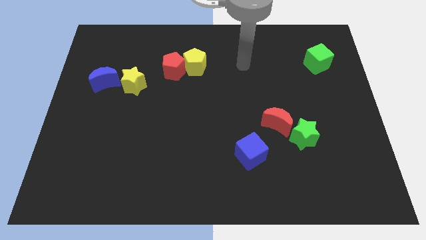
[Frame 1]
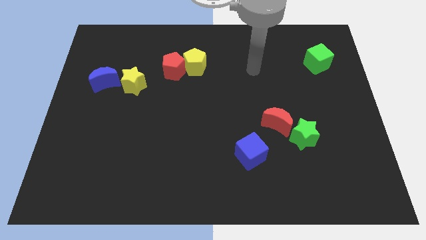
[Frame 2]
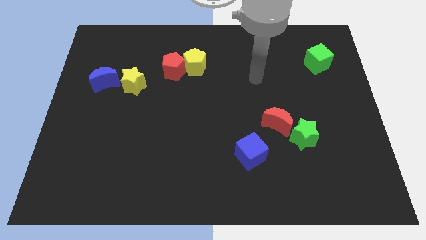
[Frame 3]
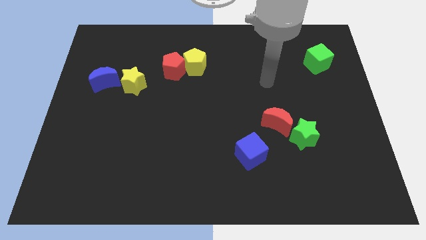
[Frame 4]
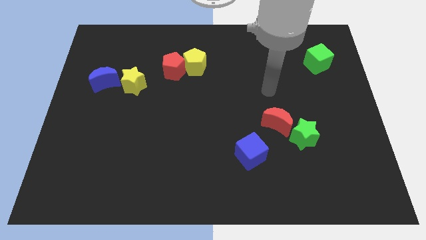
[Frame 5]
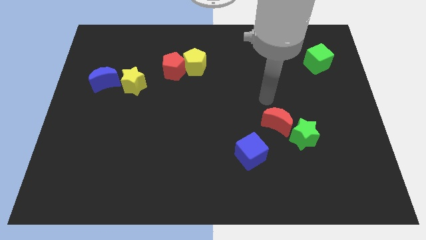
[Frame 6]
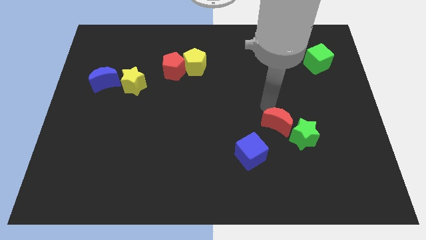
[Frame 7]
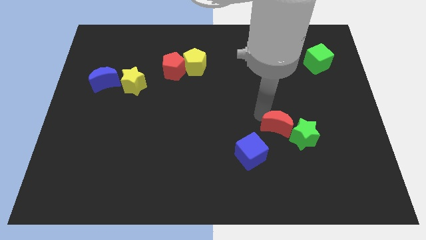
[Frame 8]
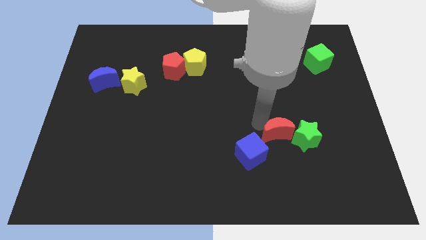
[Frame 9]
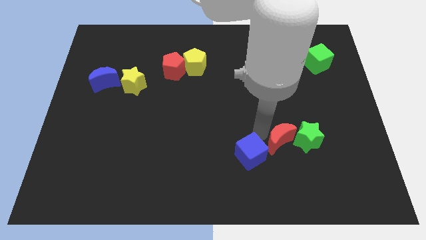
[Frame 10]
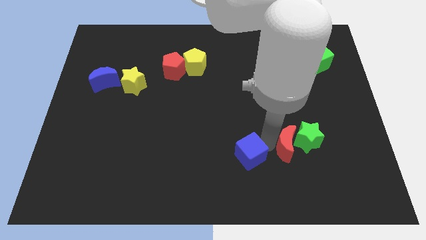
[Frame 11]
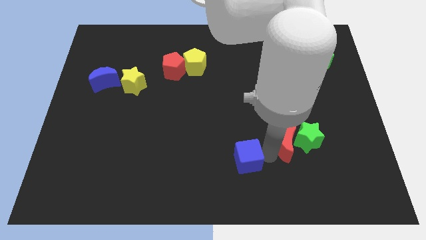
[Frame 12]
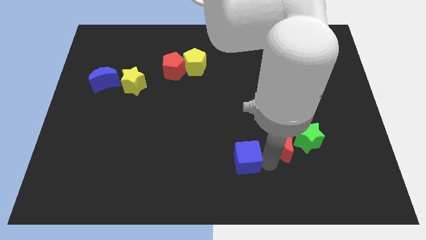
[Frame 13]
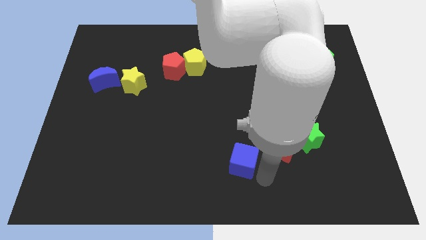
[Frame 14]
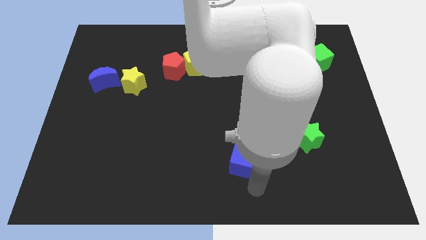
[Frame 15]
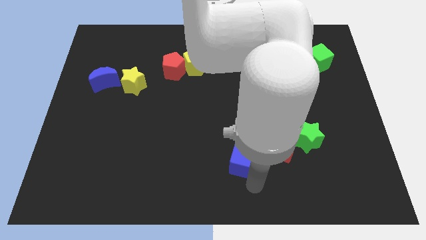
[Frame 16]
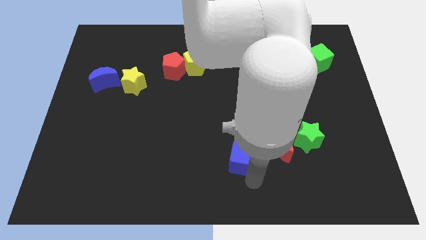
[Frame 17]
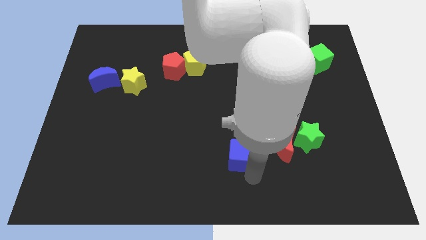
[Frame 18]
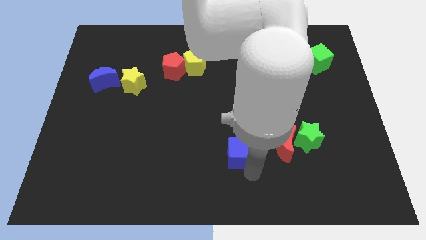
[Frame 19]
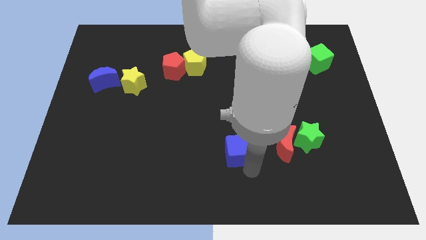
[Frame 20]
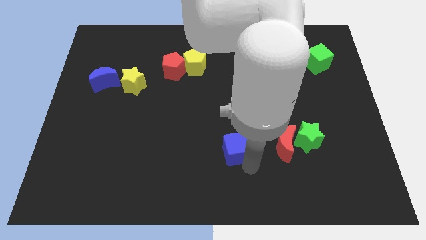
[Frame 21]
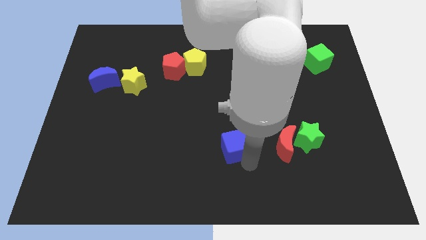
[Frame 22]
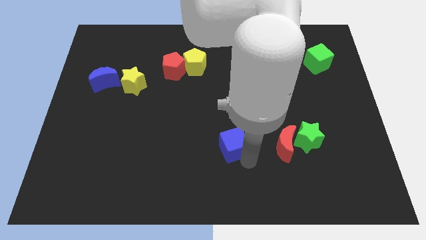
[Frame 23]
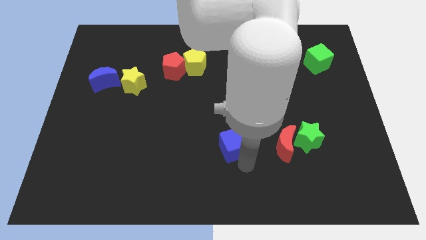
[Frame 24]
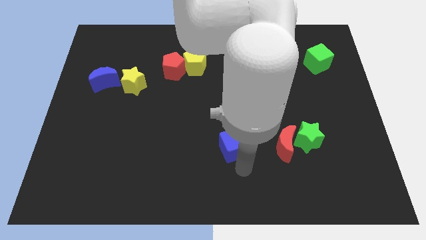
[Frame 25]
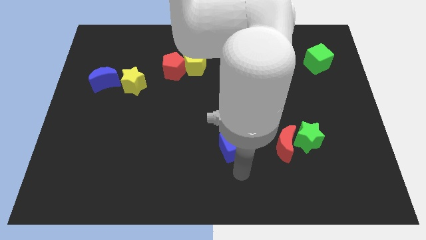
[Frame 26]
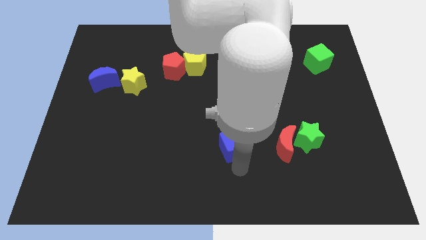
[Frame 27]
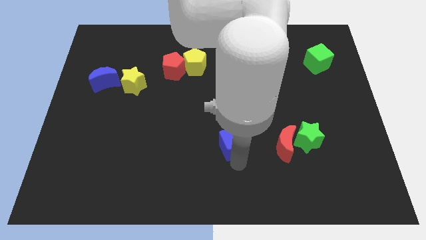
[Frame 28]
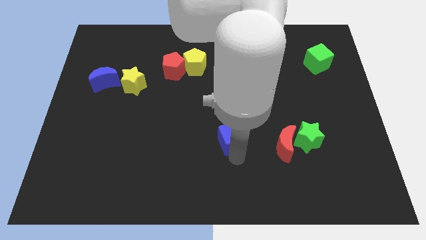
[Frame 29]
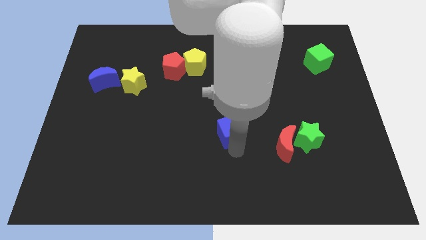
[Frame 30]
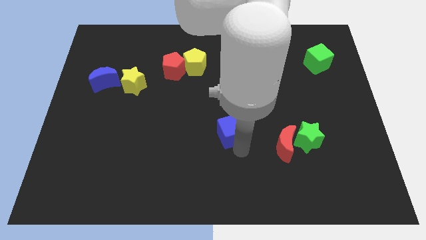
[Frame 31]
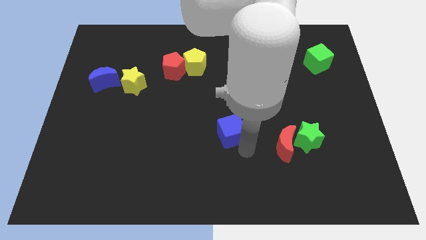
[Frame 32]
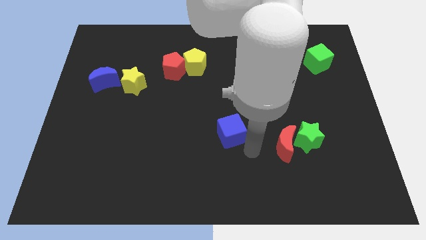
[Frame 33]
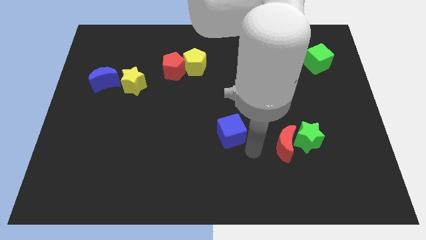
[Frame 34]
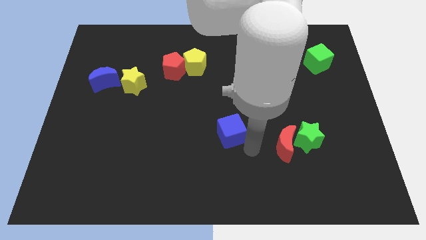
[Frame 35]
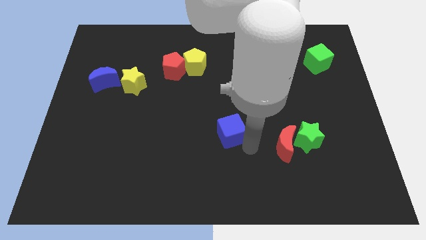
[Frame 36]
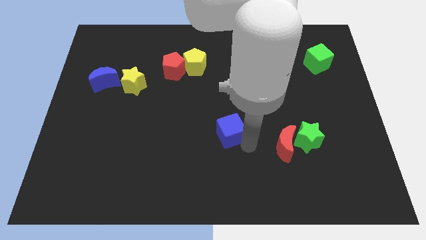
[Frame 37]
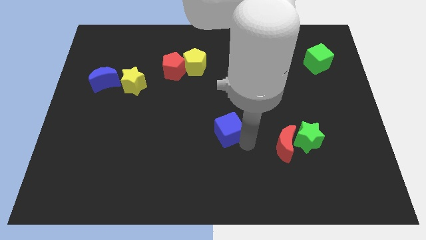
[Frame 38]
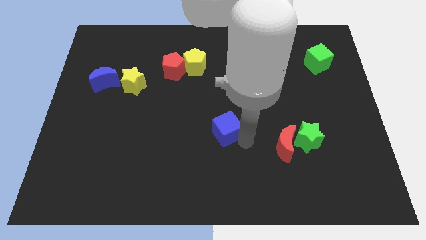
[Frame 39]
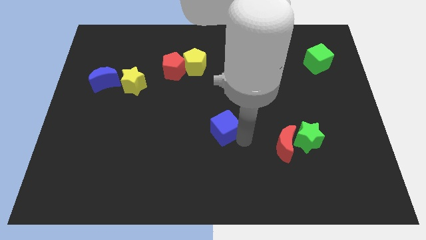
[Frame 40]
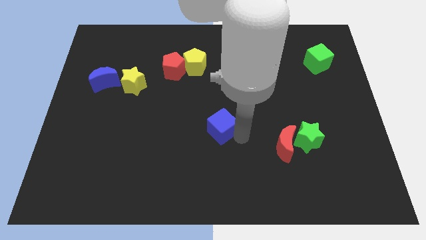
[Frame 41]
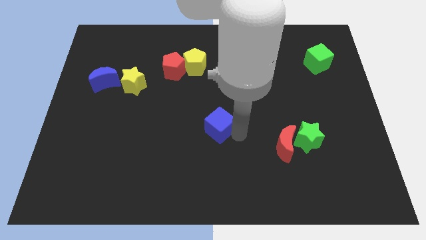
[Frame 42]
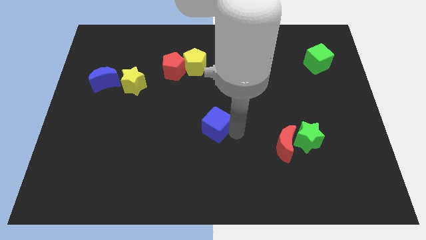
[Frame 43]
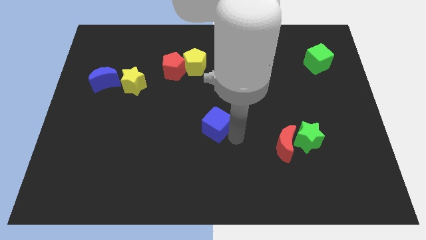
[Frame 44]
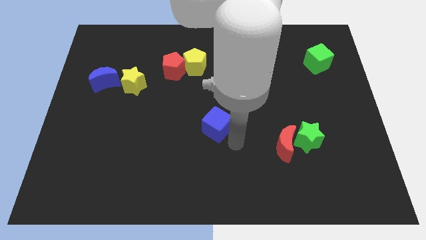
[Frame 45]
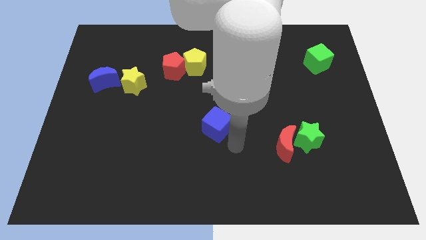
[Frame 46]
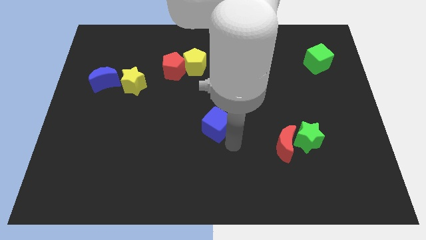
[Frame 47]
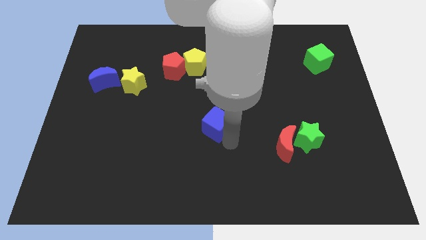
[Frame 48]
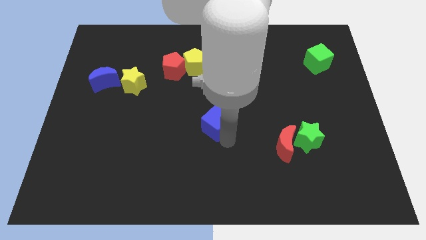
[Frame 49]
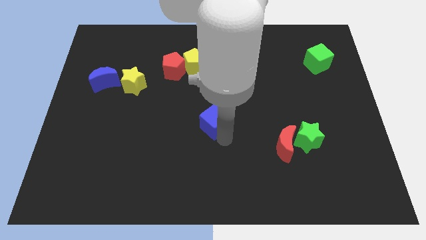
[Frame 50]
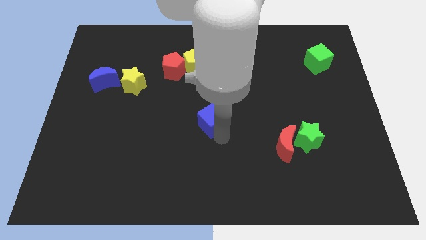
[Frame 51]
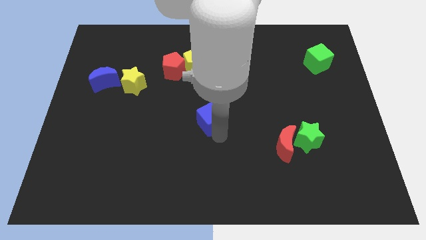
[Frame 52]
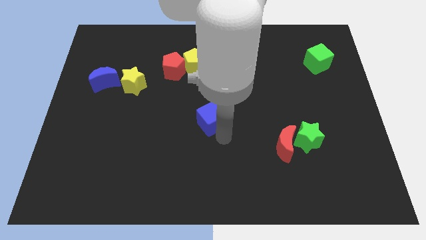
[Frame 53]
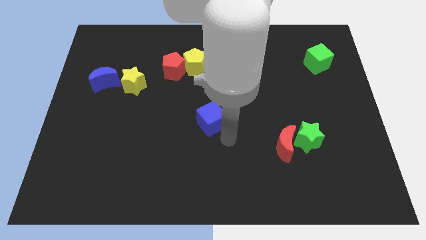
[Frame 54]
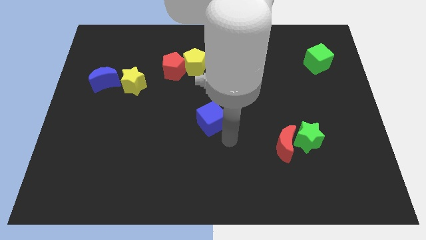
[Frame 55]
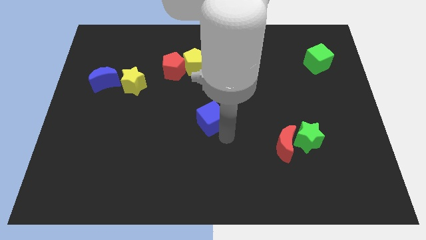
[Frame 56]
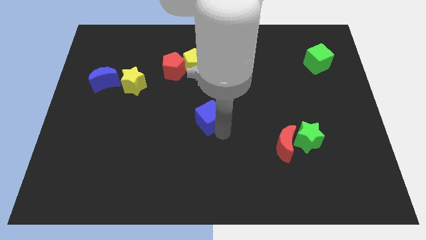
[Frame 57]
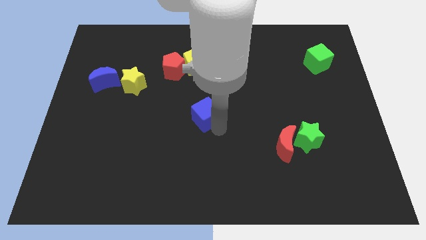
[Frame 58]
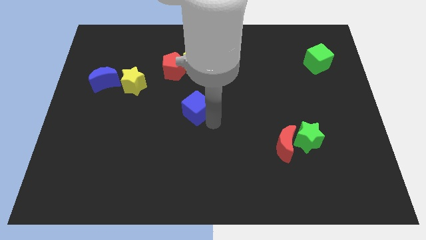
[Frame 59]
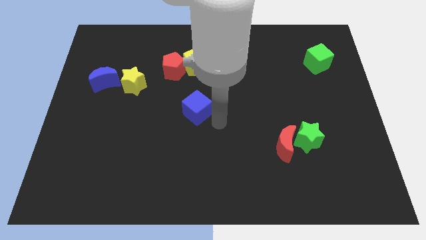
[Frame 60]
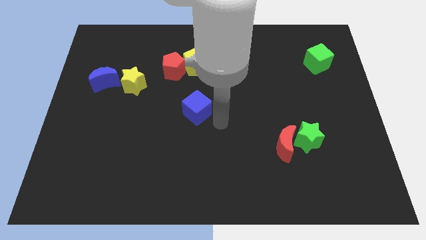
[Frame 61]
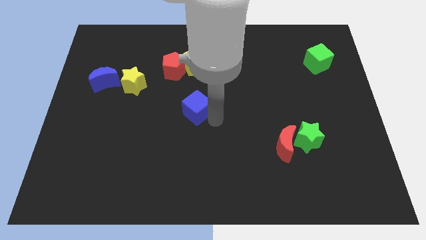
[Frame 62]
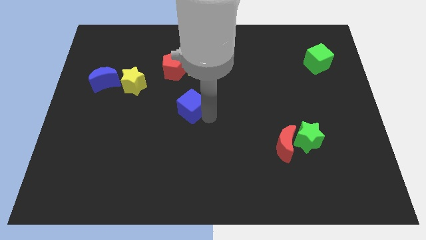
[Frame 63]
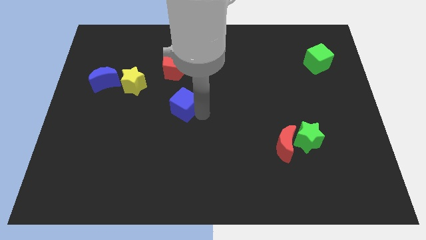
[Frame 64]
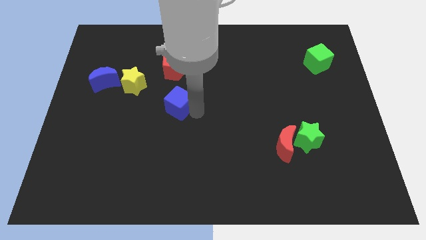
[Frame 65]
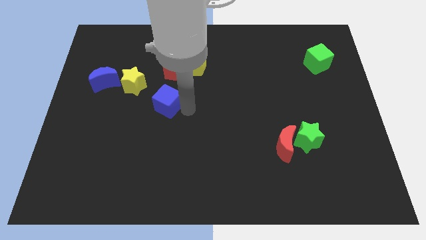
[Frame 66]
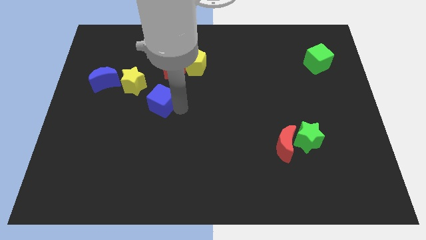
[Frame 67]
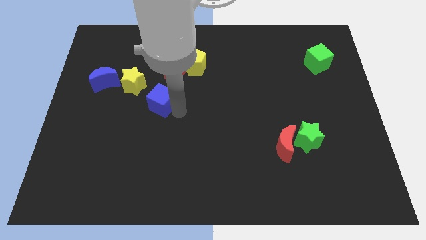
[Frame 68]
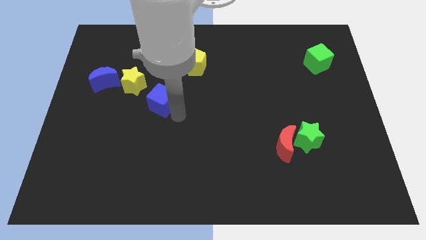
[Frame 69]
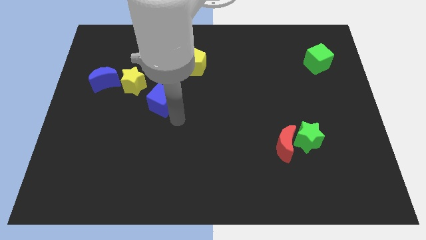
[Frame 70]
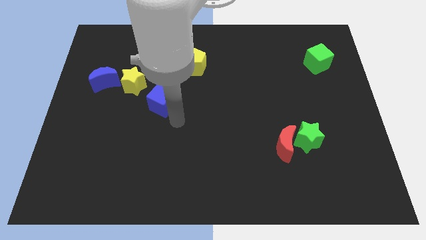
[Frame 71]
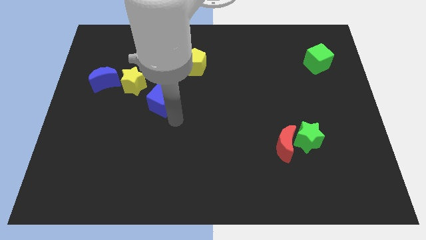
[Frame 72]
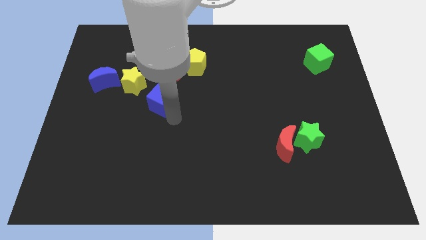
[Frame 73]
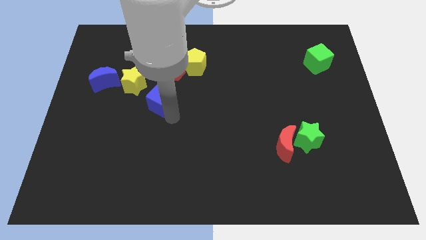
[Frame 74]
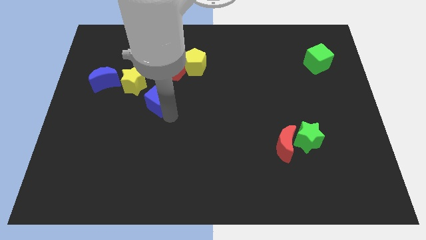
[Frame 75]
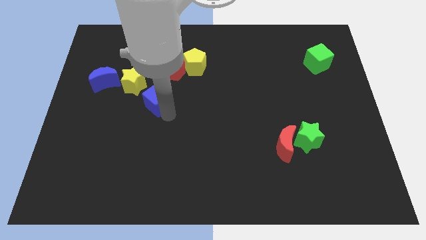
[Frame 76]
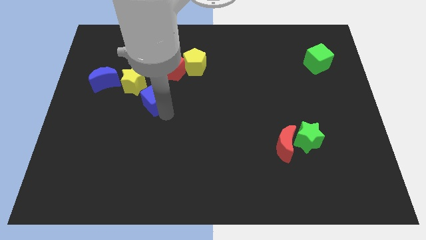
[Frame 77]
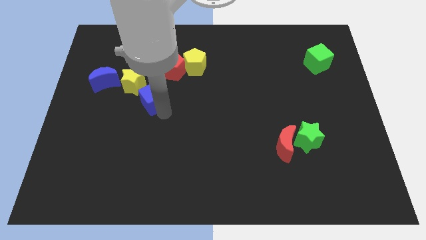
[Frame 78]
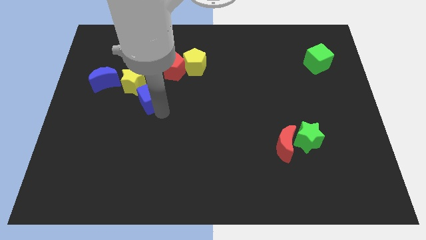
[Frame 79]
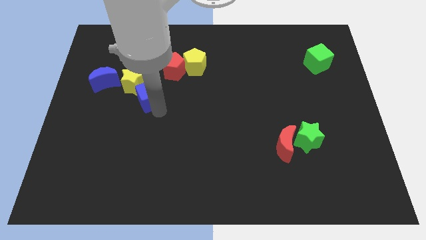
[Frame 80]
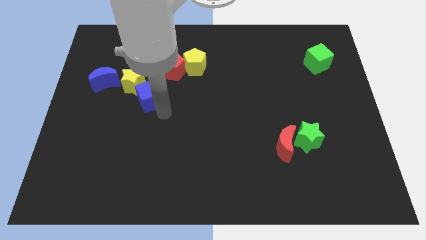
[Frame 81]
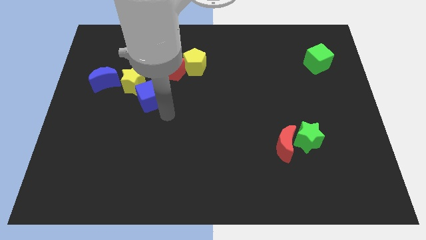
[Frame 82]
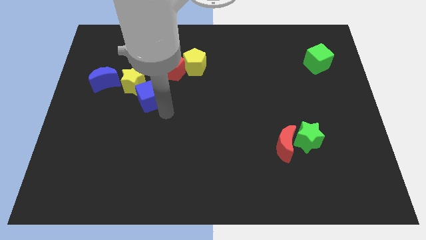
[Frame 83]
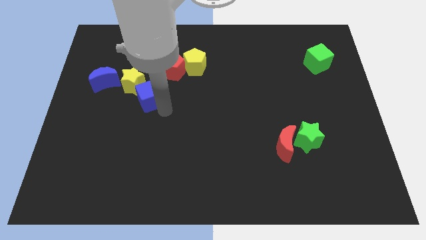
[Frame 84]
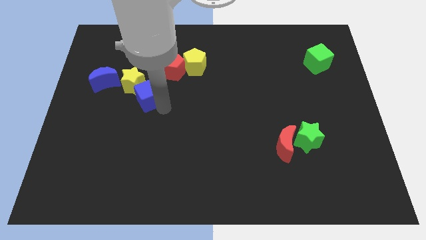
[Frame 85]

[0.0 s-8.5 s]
slide the blue cube close to the yellow star
